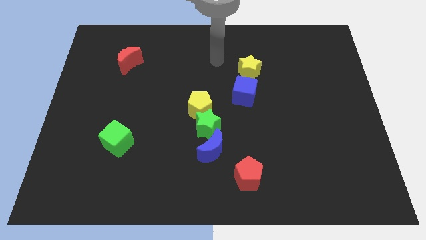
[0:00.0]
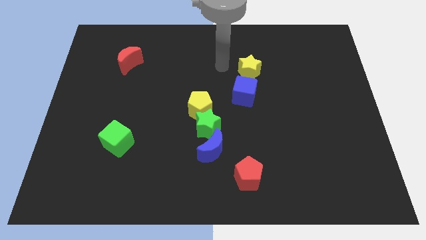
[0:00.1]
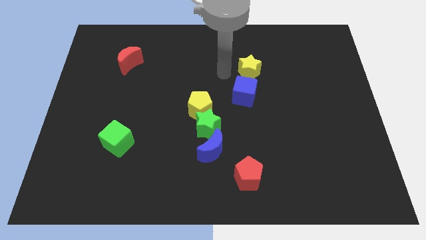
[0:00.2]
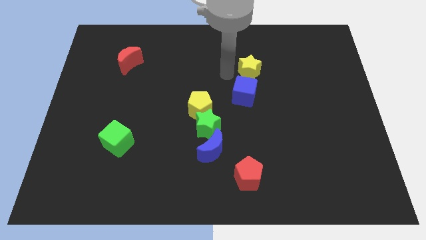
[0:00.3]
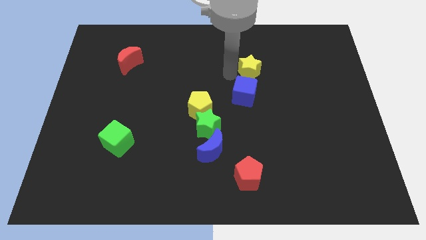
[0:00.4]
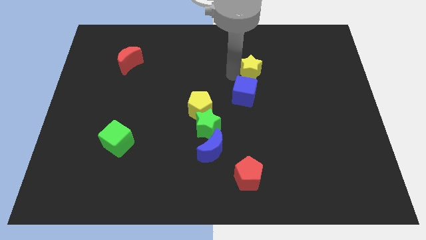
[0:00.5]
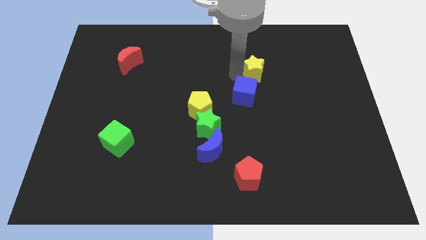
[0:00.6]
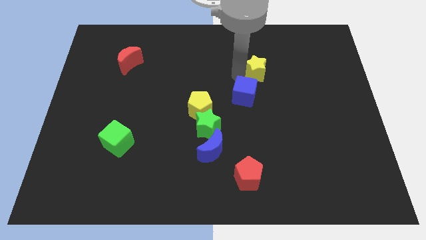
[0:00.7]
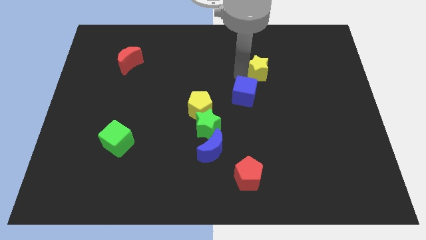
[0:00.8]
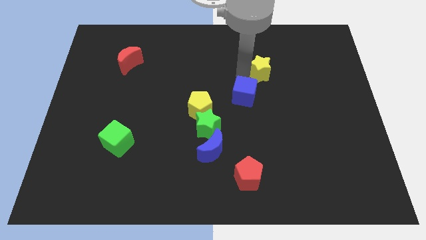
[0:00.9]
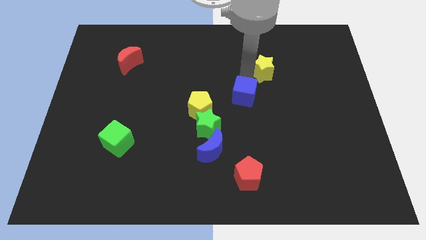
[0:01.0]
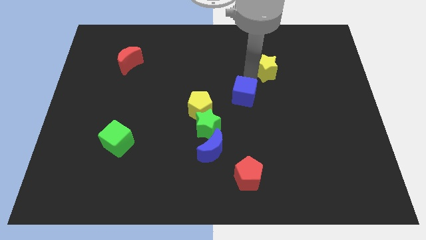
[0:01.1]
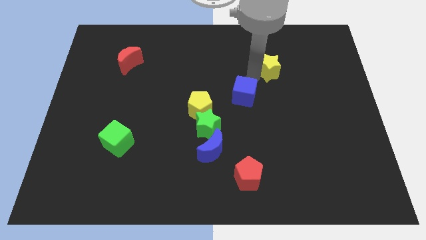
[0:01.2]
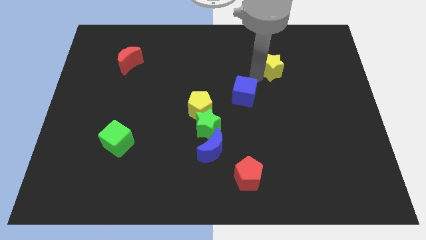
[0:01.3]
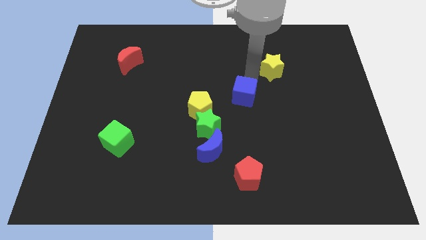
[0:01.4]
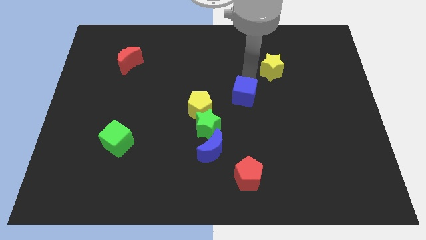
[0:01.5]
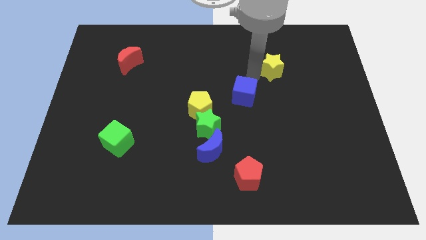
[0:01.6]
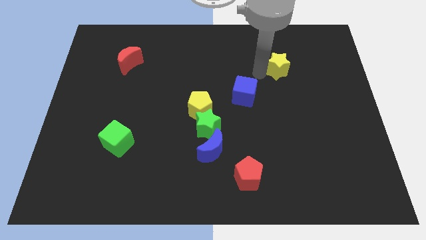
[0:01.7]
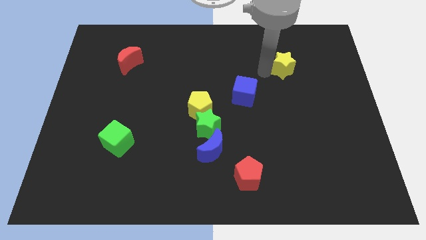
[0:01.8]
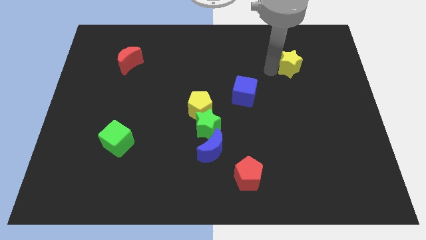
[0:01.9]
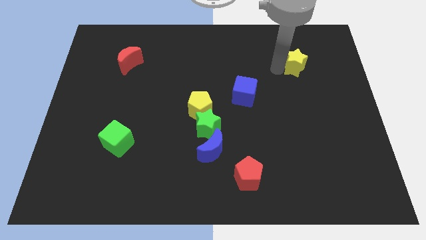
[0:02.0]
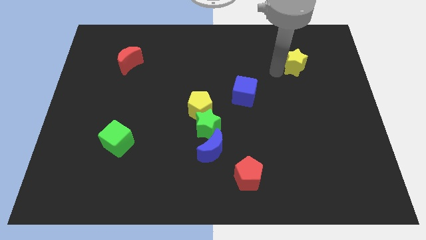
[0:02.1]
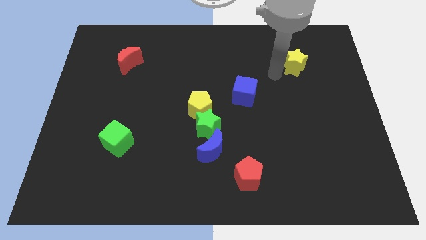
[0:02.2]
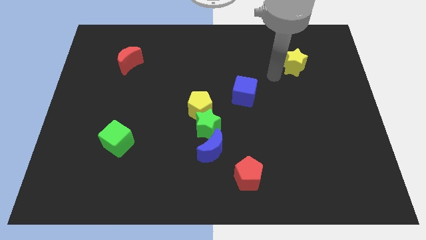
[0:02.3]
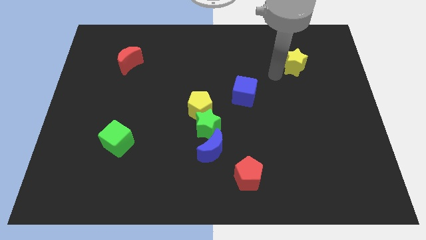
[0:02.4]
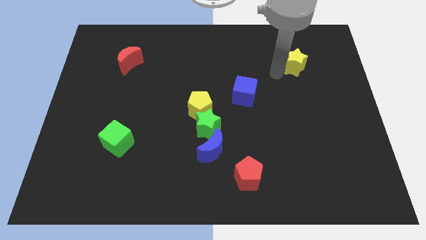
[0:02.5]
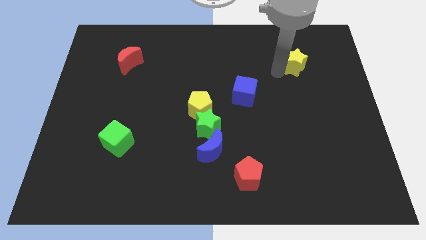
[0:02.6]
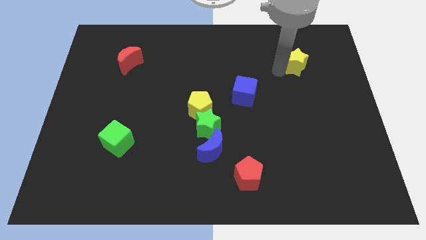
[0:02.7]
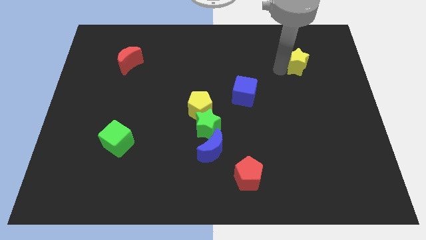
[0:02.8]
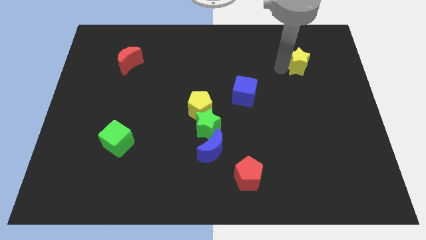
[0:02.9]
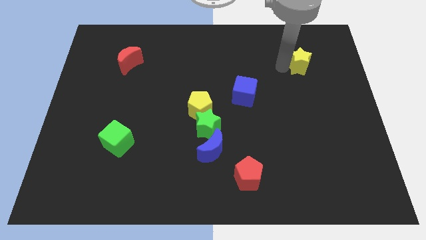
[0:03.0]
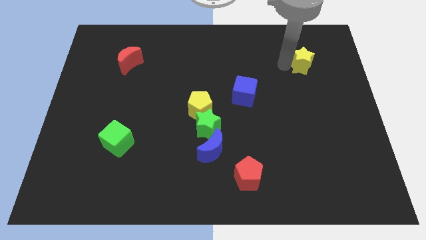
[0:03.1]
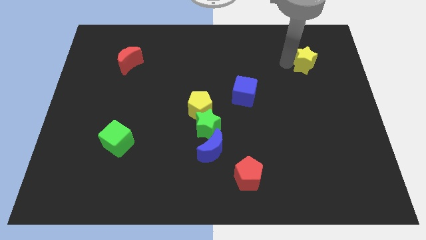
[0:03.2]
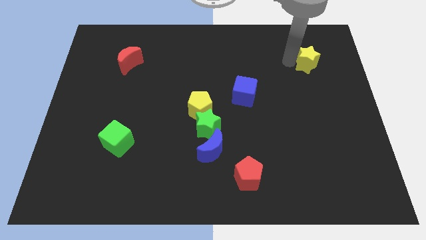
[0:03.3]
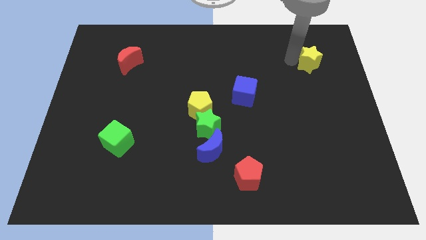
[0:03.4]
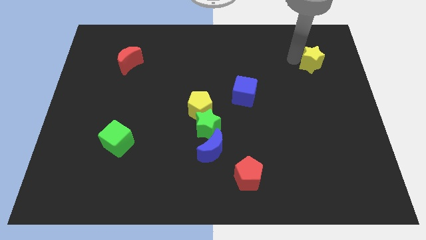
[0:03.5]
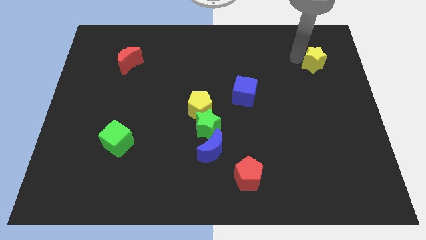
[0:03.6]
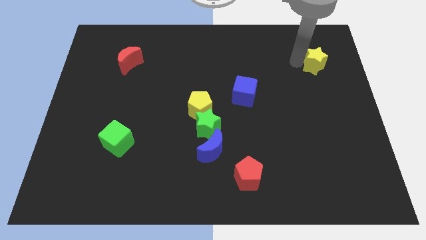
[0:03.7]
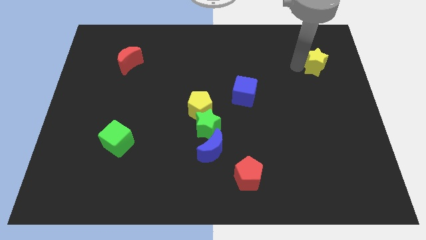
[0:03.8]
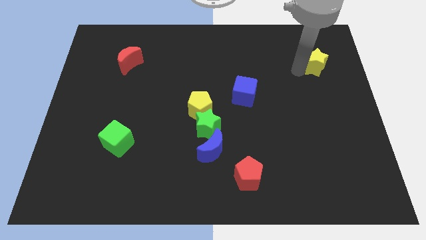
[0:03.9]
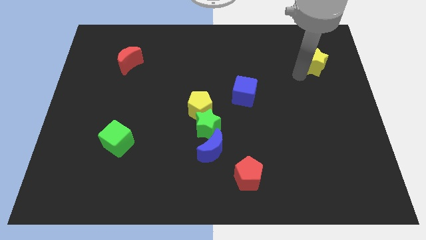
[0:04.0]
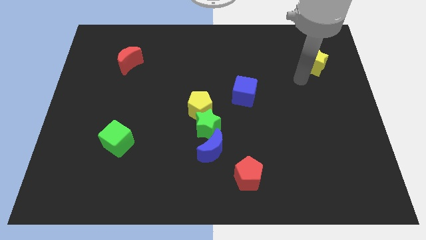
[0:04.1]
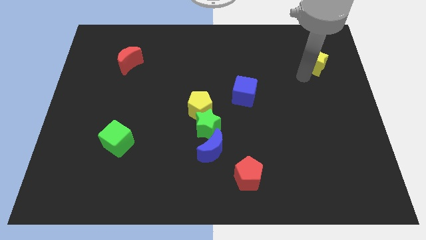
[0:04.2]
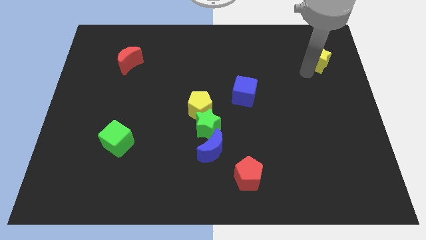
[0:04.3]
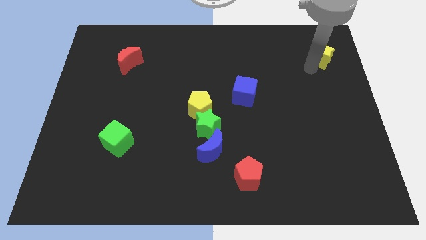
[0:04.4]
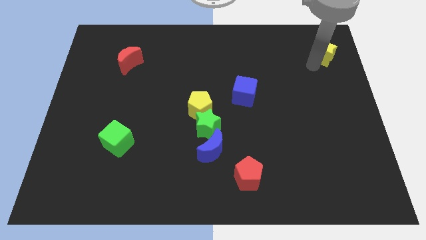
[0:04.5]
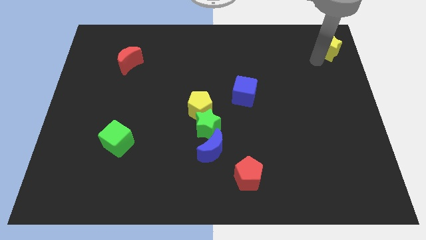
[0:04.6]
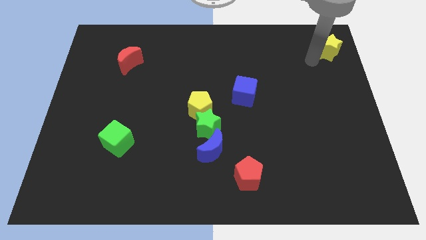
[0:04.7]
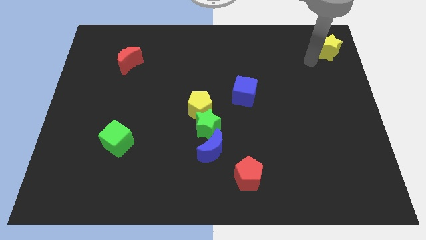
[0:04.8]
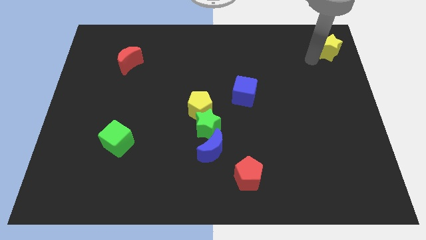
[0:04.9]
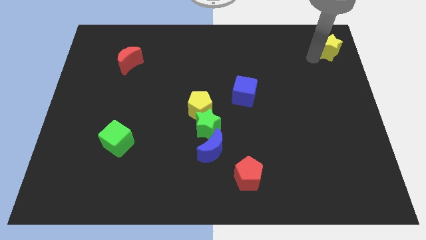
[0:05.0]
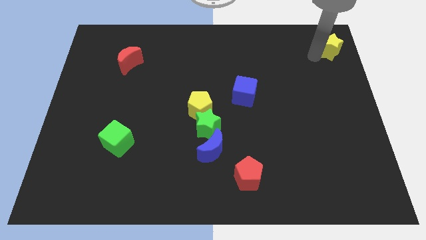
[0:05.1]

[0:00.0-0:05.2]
slide the yellow star to the top right corner

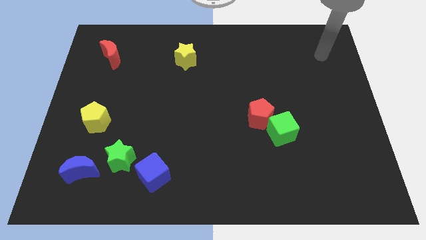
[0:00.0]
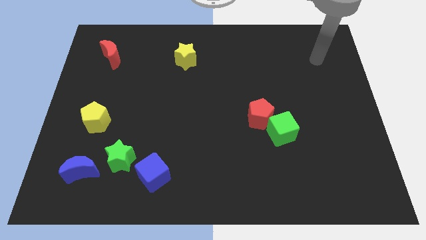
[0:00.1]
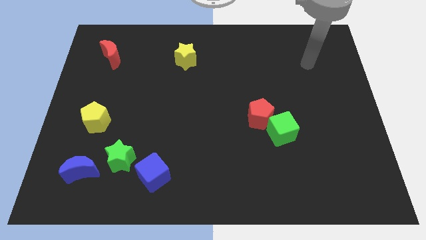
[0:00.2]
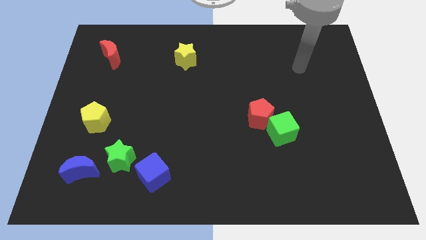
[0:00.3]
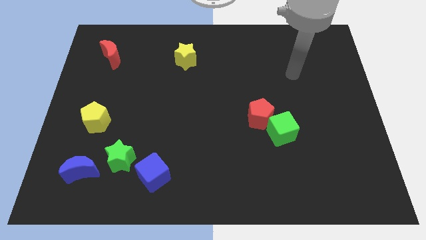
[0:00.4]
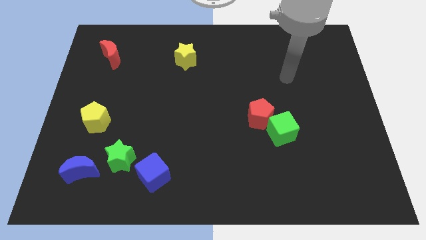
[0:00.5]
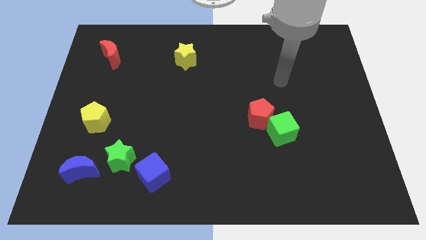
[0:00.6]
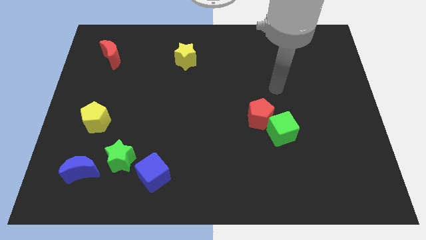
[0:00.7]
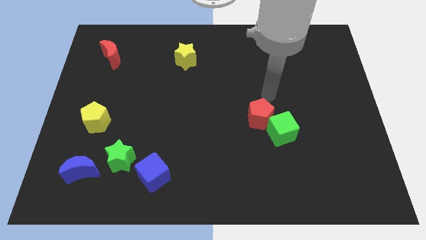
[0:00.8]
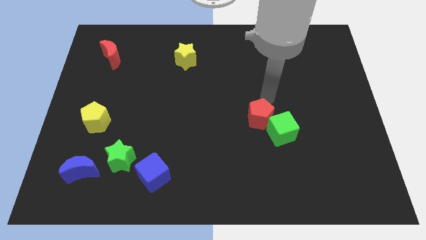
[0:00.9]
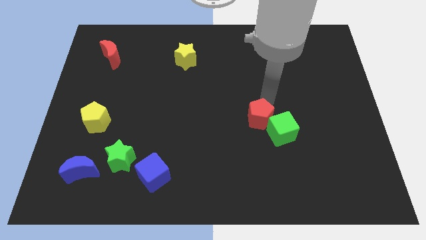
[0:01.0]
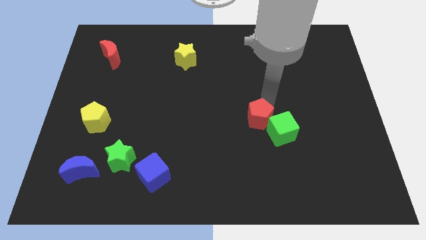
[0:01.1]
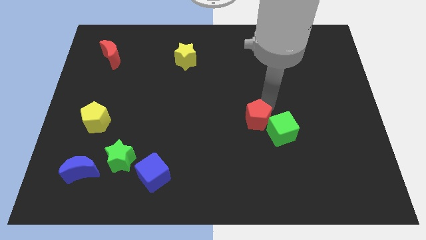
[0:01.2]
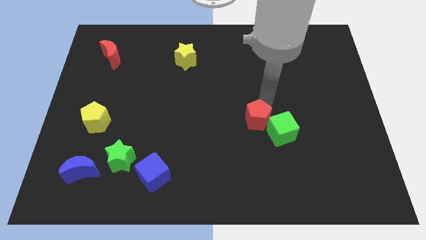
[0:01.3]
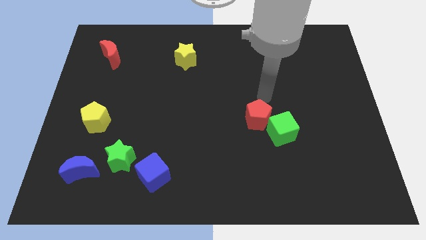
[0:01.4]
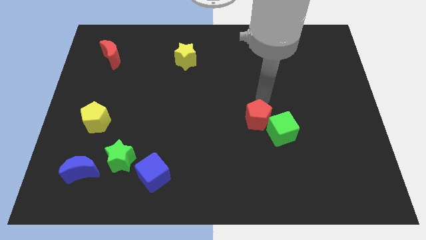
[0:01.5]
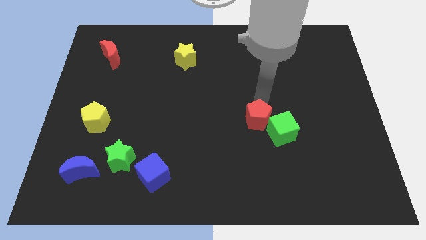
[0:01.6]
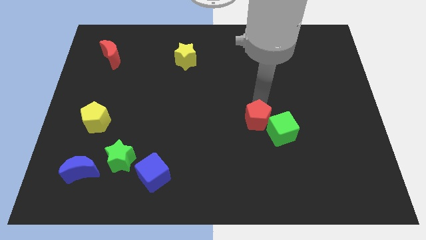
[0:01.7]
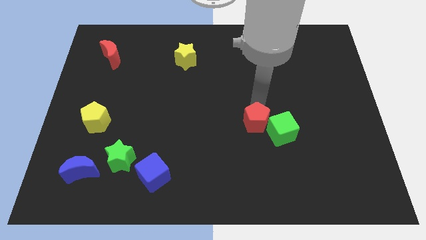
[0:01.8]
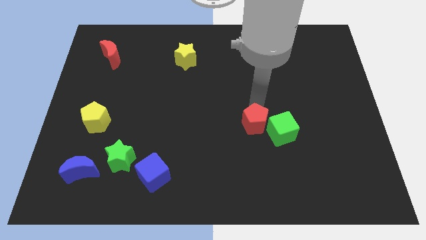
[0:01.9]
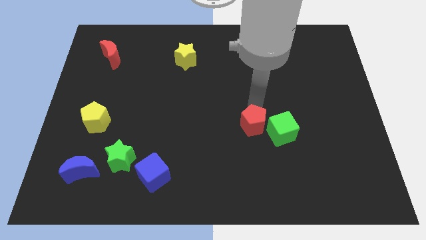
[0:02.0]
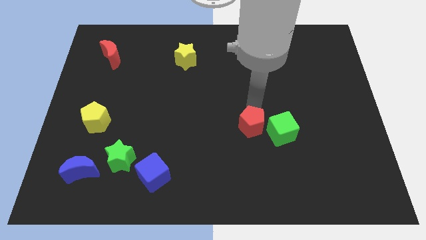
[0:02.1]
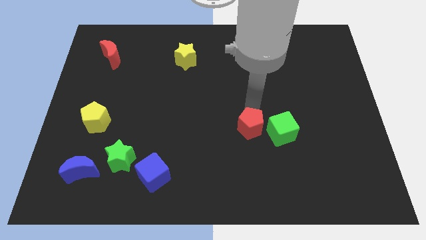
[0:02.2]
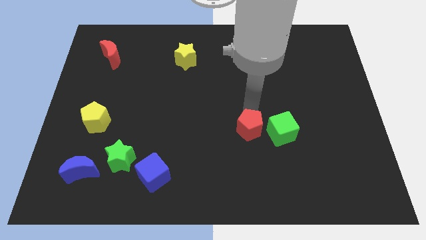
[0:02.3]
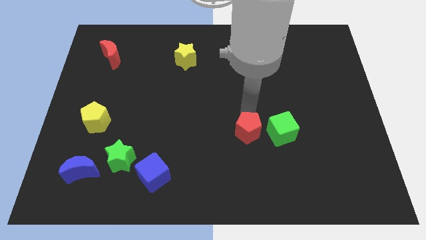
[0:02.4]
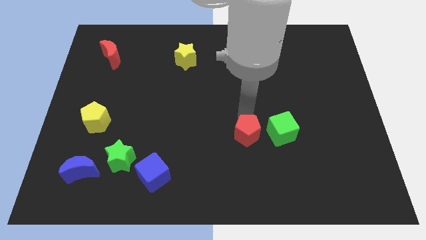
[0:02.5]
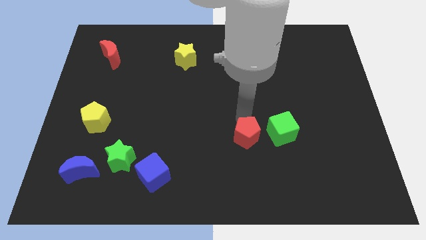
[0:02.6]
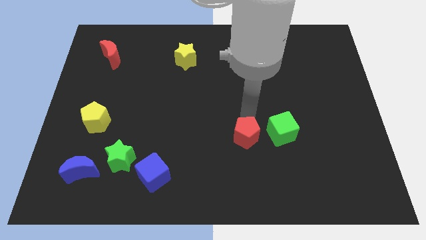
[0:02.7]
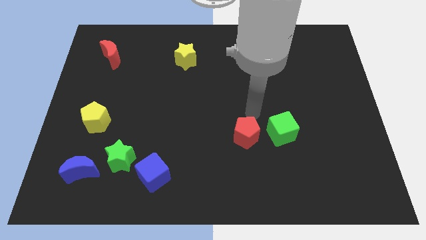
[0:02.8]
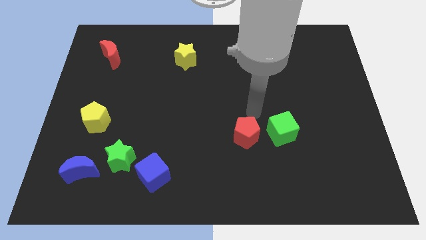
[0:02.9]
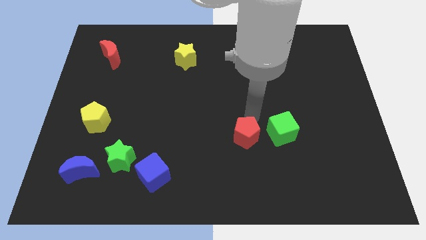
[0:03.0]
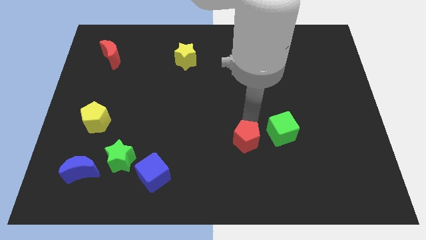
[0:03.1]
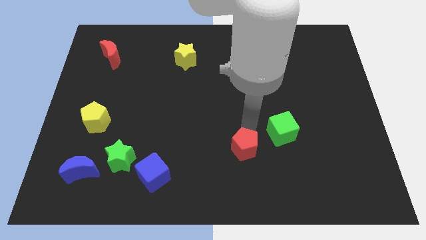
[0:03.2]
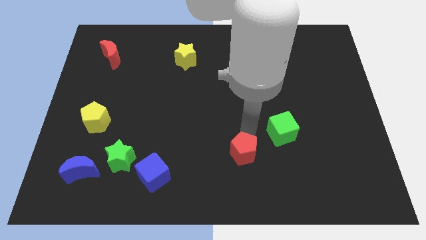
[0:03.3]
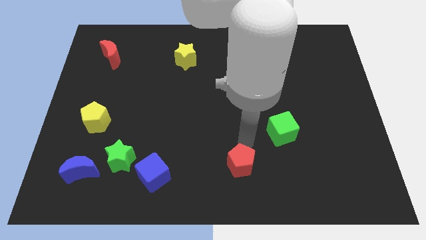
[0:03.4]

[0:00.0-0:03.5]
put the red pentagon to the bottom side
